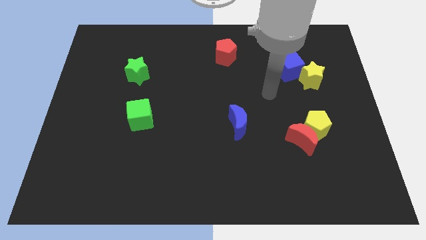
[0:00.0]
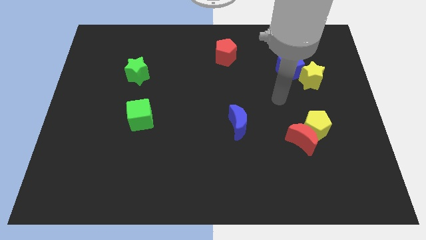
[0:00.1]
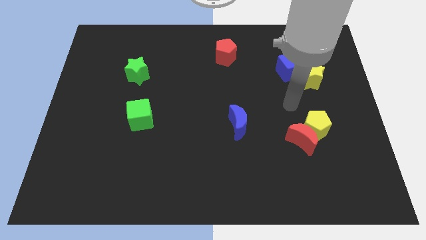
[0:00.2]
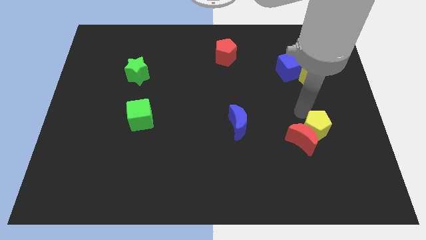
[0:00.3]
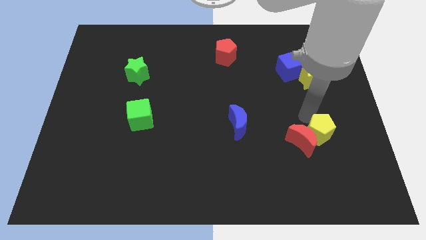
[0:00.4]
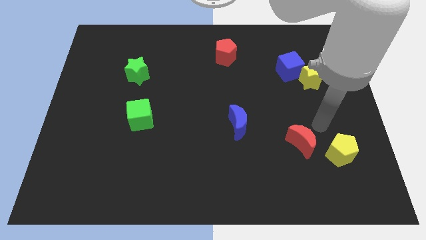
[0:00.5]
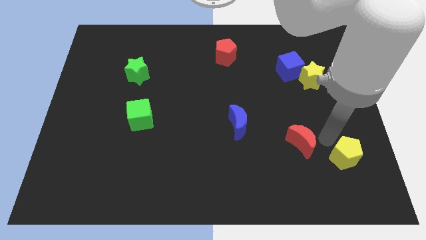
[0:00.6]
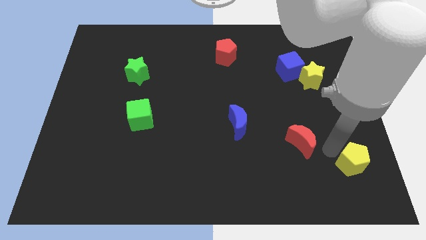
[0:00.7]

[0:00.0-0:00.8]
pull the red moon apart from the yellow pentagon

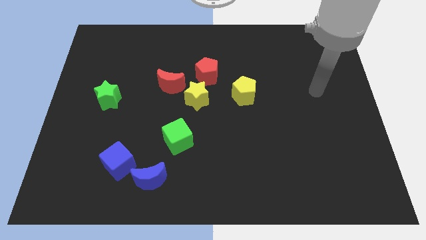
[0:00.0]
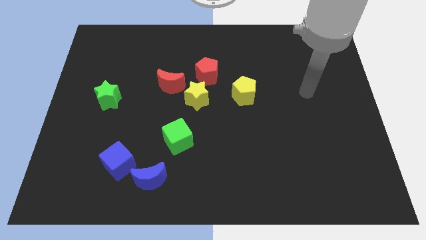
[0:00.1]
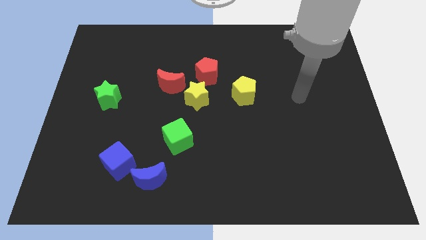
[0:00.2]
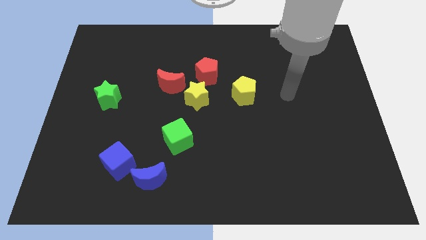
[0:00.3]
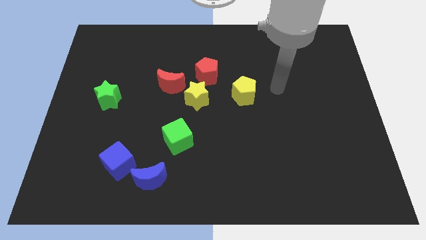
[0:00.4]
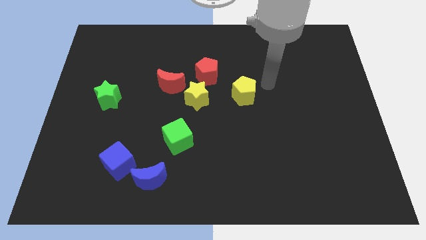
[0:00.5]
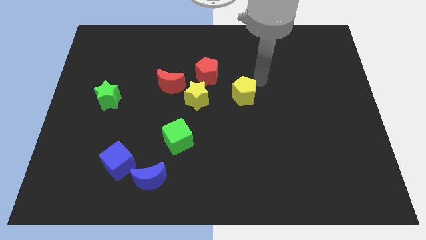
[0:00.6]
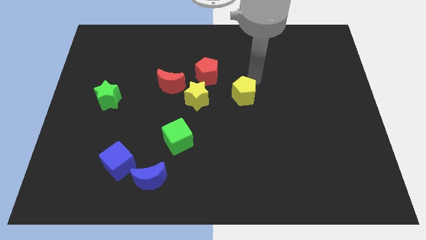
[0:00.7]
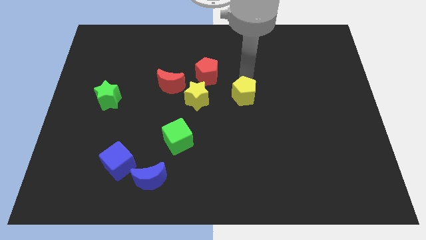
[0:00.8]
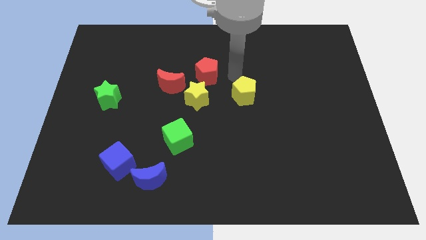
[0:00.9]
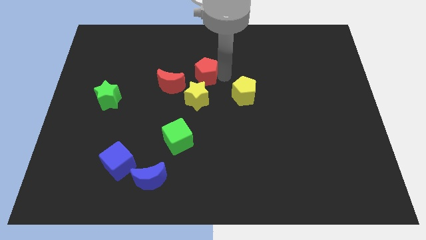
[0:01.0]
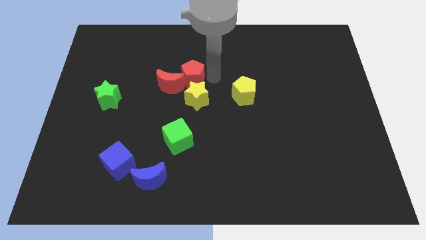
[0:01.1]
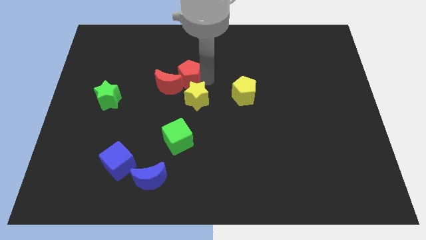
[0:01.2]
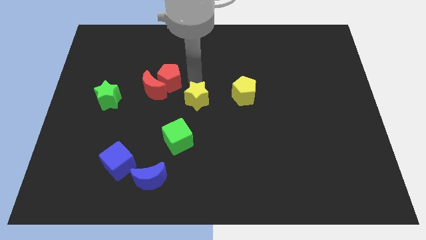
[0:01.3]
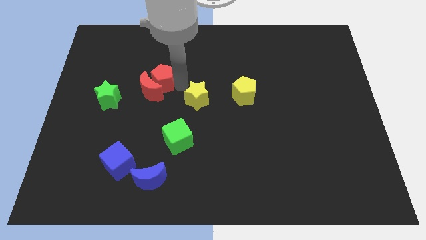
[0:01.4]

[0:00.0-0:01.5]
separate the yellow star from the red moon and red pentagon

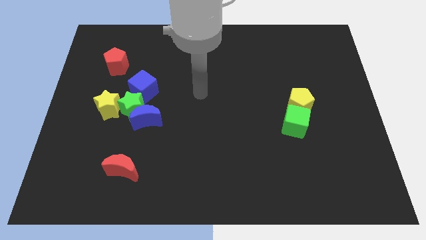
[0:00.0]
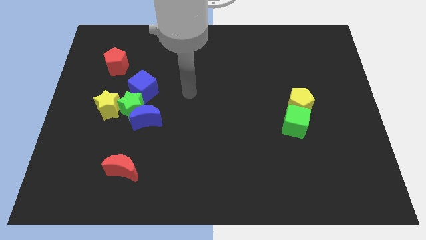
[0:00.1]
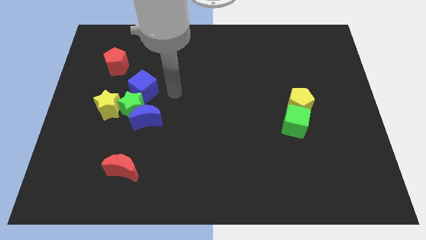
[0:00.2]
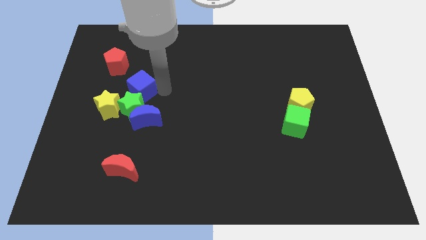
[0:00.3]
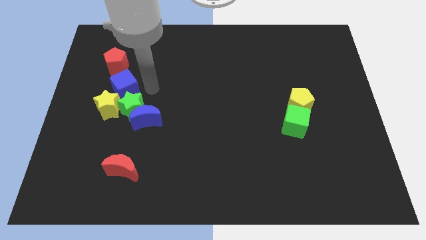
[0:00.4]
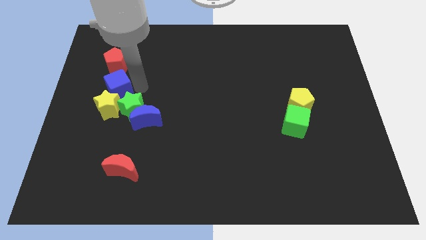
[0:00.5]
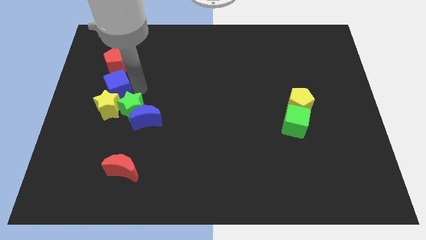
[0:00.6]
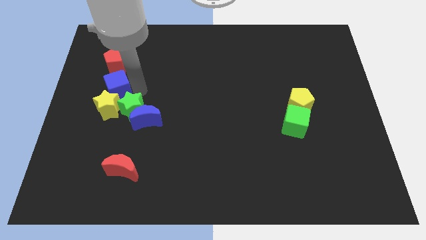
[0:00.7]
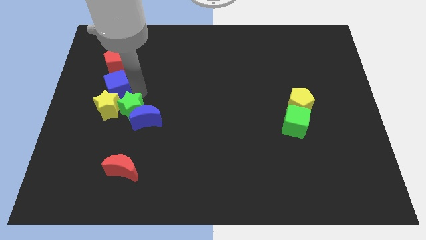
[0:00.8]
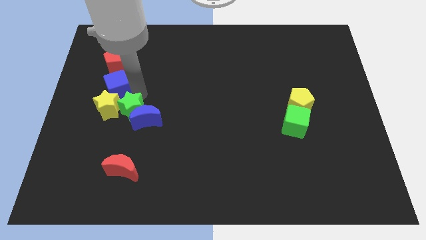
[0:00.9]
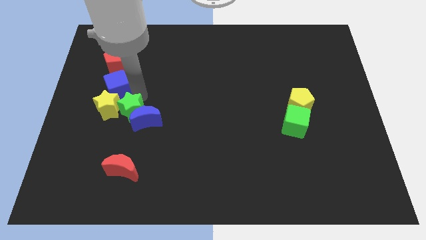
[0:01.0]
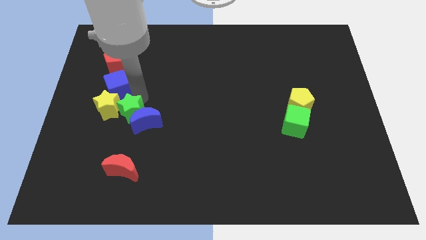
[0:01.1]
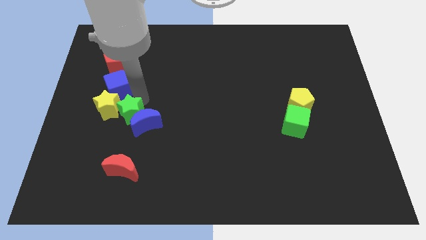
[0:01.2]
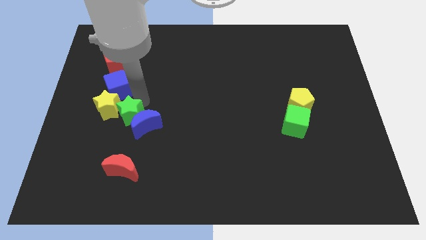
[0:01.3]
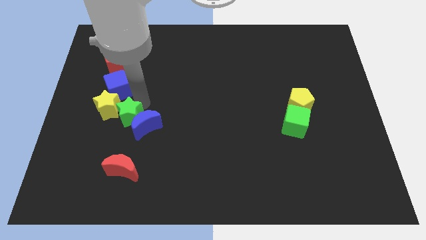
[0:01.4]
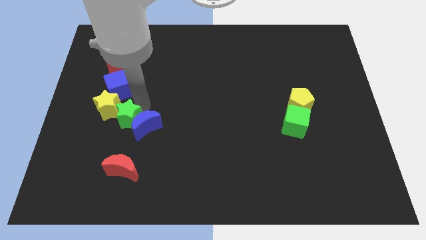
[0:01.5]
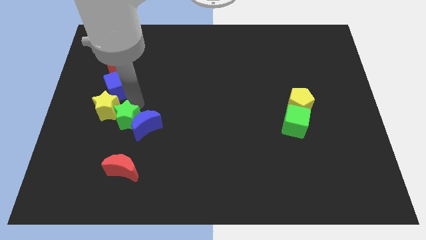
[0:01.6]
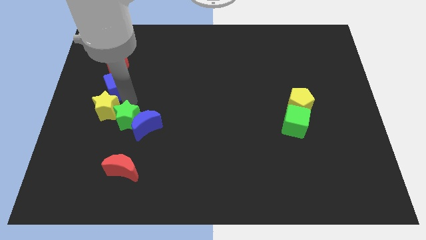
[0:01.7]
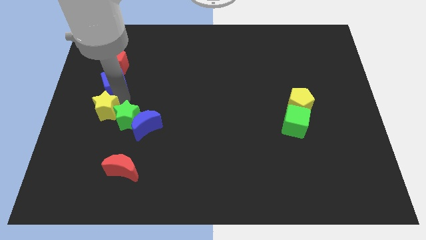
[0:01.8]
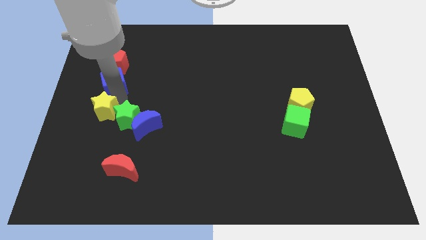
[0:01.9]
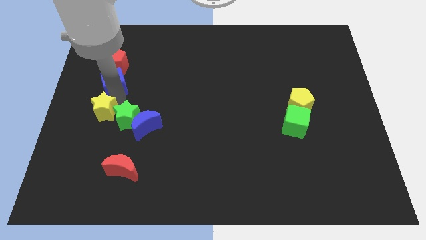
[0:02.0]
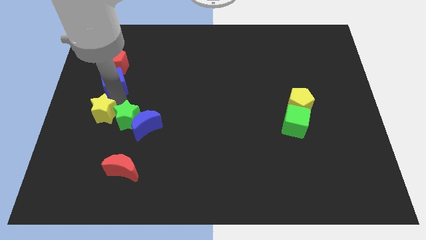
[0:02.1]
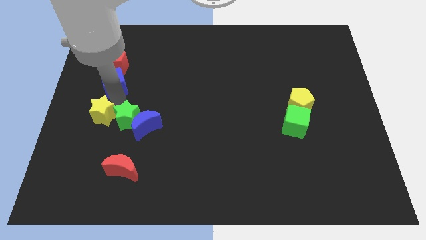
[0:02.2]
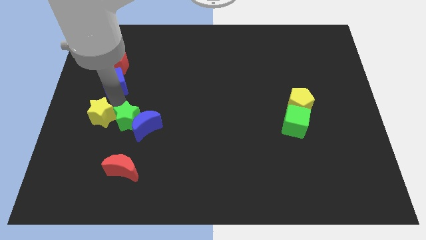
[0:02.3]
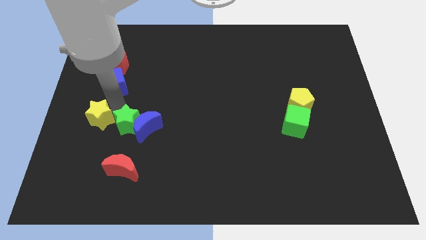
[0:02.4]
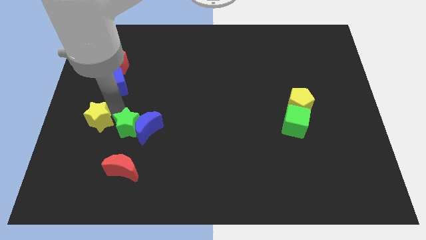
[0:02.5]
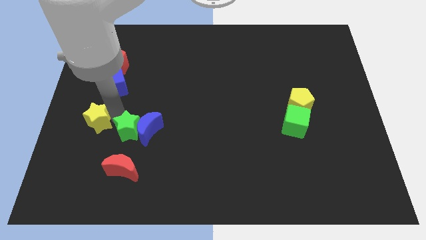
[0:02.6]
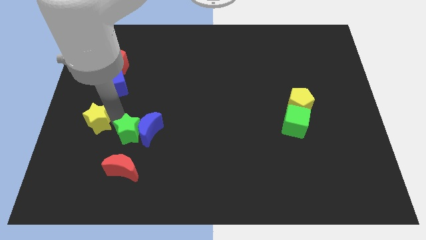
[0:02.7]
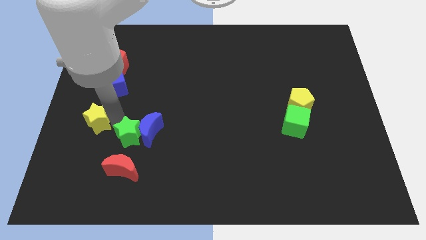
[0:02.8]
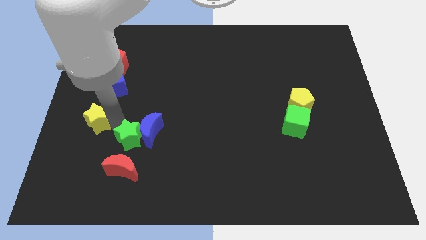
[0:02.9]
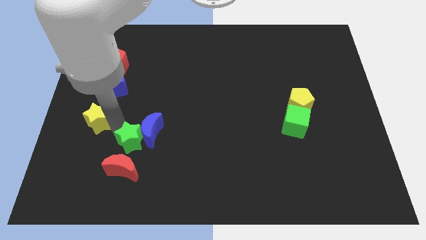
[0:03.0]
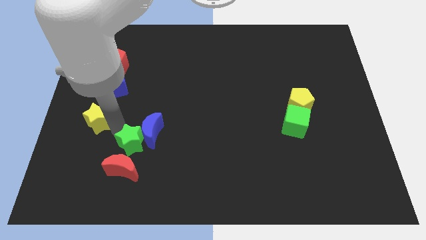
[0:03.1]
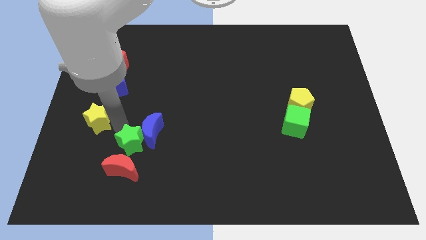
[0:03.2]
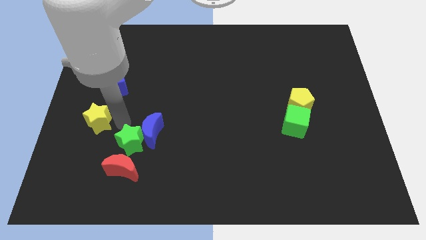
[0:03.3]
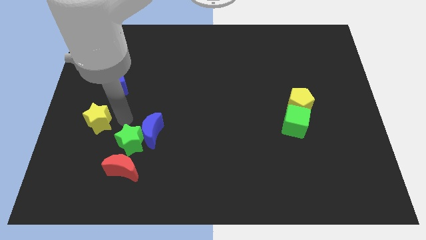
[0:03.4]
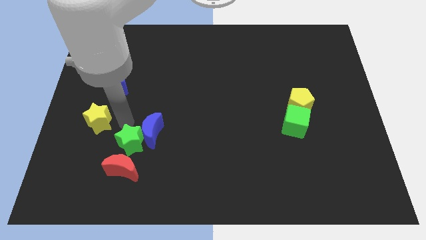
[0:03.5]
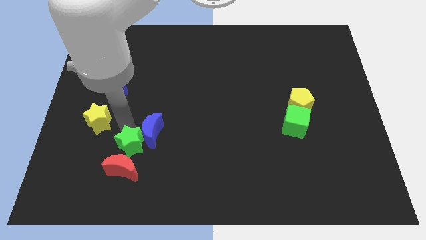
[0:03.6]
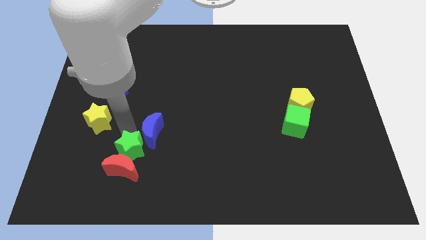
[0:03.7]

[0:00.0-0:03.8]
move the green star away from the clump

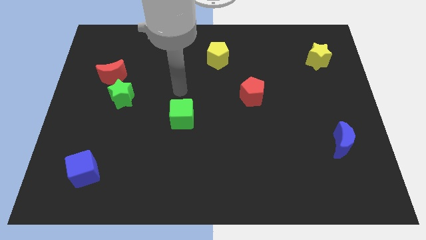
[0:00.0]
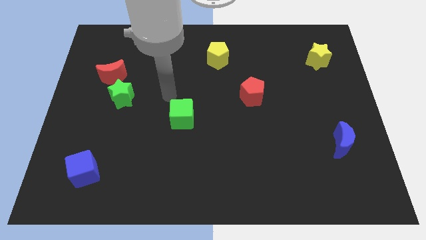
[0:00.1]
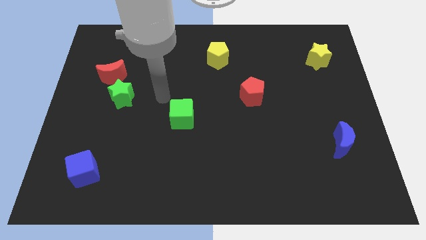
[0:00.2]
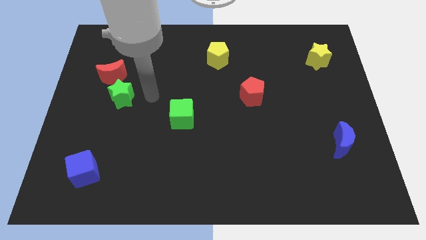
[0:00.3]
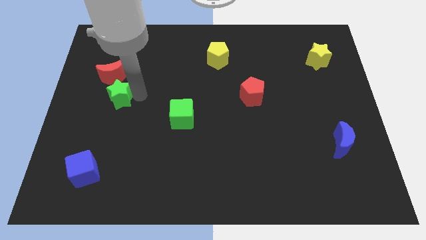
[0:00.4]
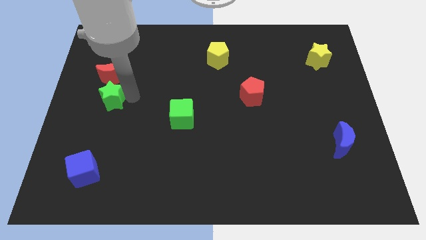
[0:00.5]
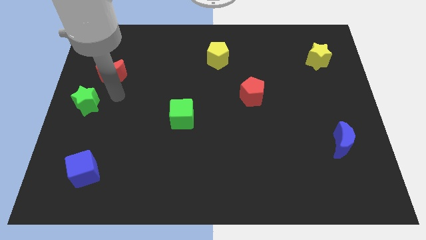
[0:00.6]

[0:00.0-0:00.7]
pull the red moon apart from the green star

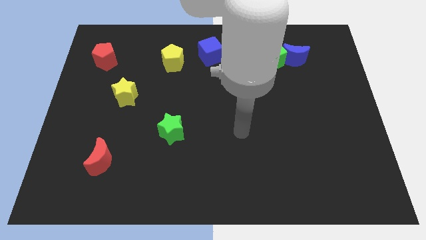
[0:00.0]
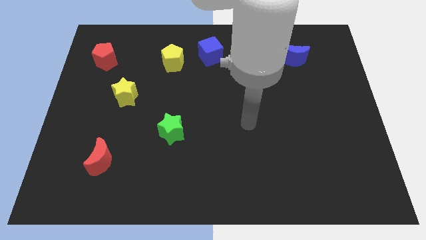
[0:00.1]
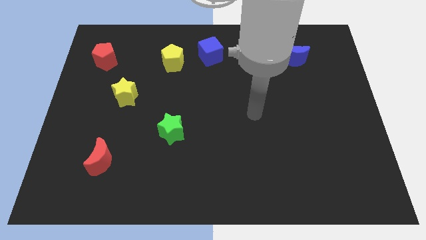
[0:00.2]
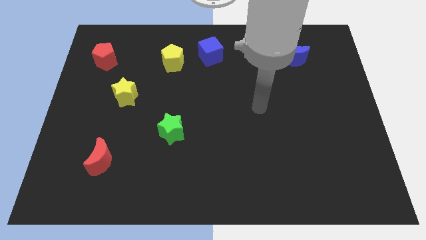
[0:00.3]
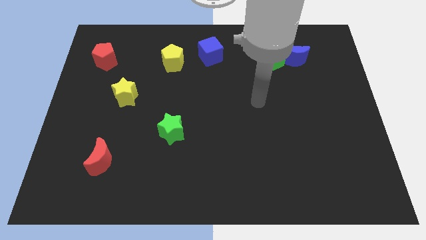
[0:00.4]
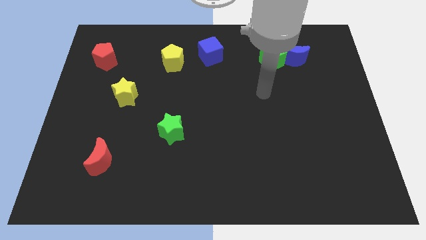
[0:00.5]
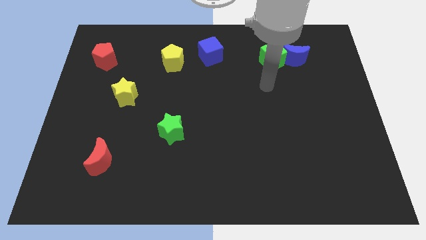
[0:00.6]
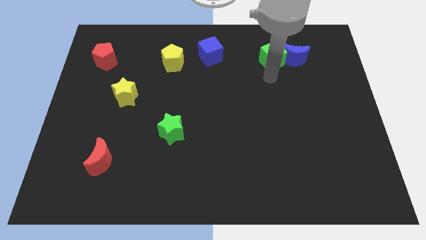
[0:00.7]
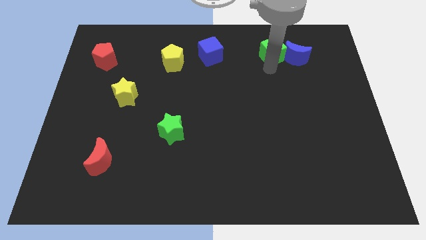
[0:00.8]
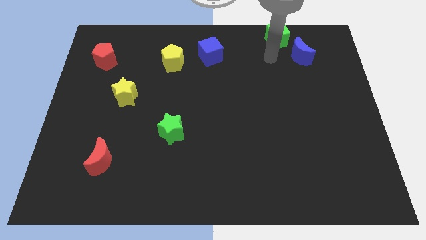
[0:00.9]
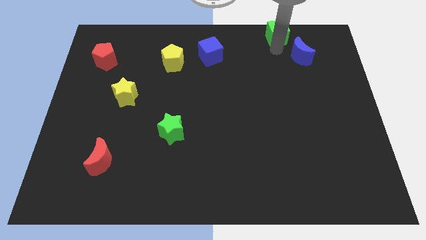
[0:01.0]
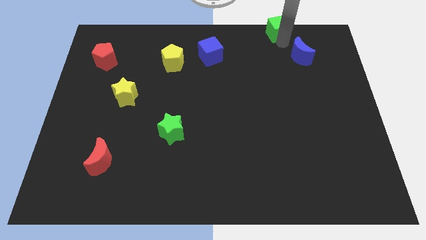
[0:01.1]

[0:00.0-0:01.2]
pull the blue moon apart from the green cube

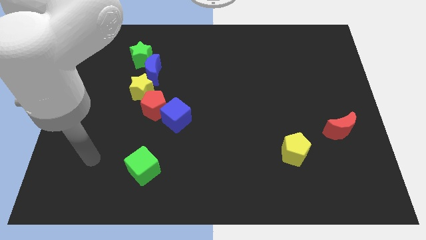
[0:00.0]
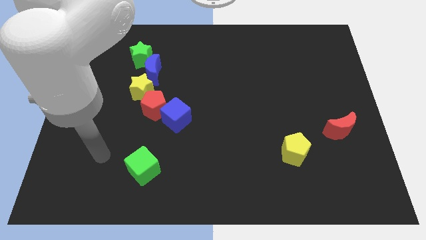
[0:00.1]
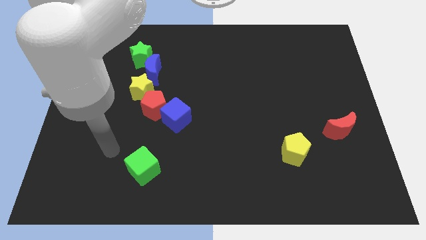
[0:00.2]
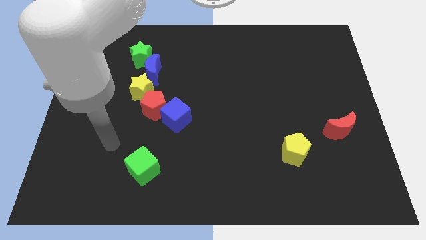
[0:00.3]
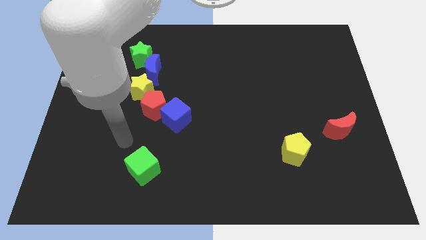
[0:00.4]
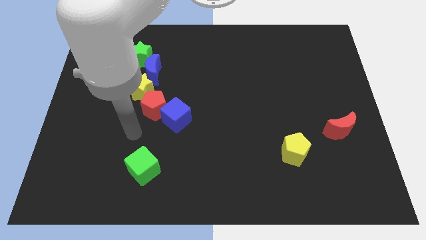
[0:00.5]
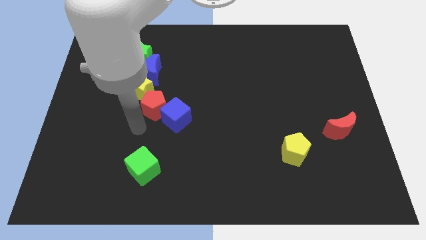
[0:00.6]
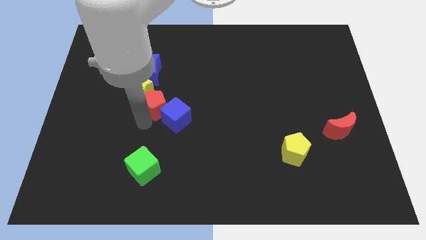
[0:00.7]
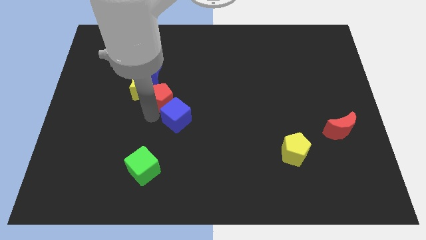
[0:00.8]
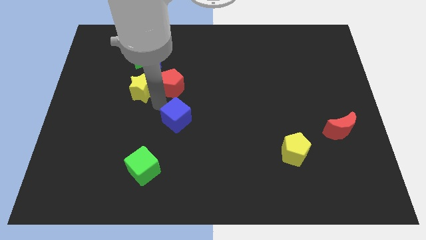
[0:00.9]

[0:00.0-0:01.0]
separate the blue cube from the red pentagon

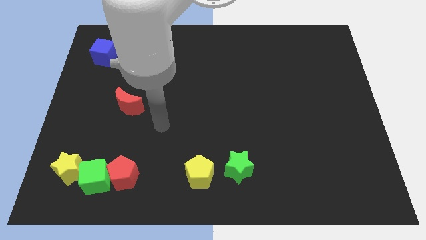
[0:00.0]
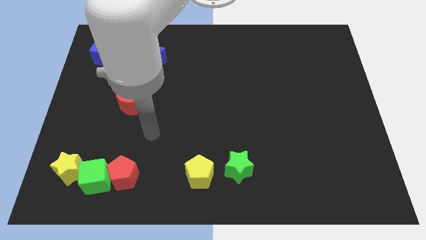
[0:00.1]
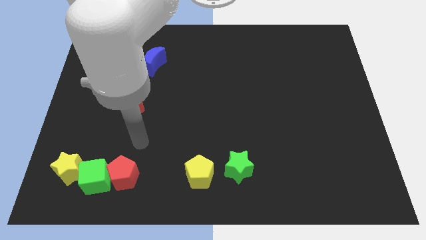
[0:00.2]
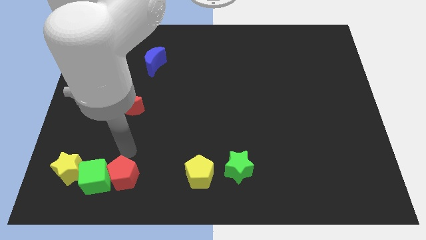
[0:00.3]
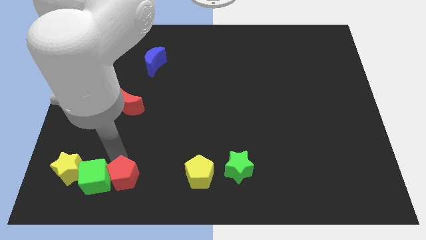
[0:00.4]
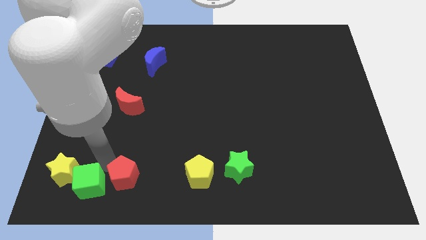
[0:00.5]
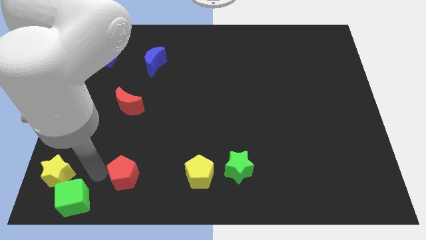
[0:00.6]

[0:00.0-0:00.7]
move the red pentagon away from the green cube
